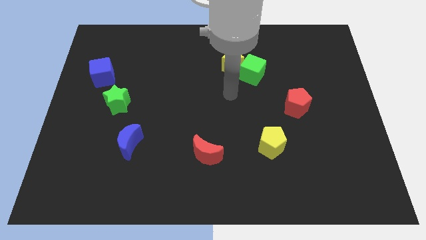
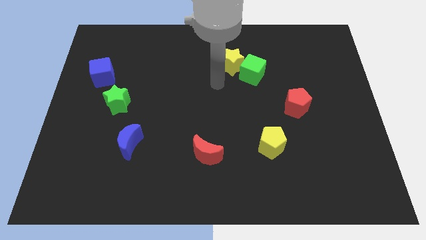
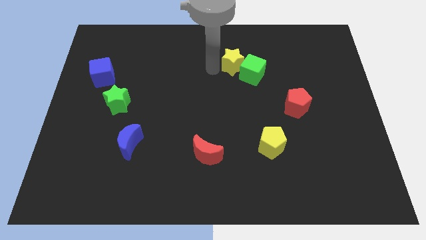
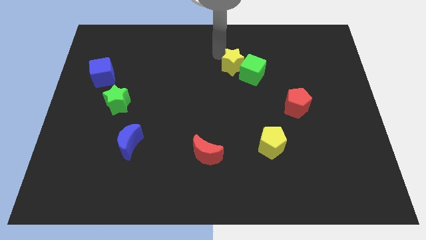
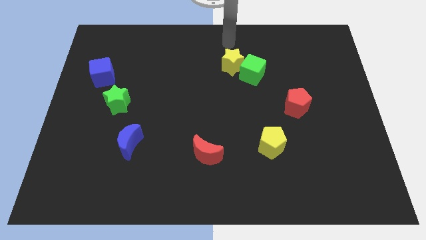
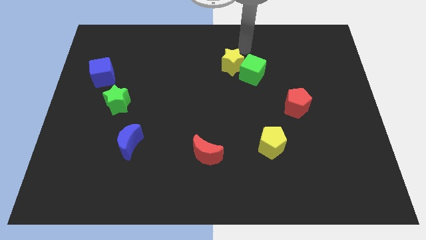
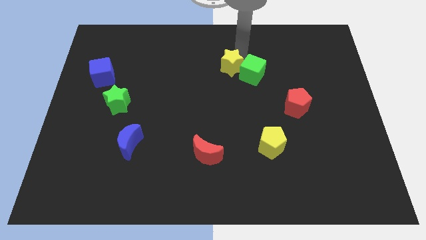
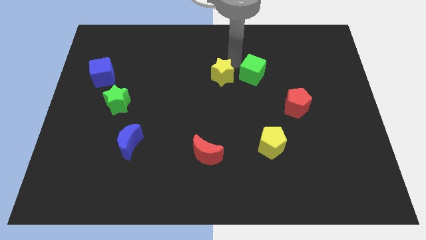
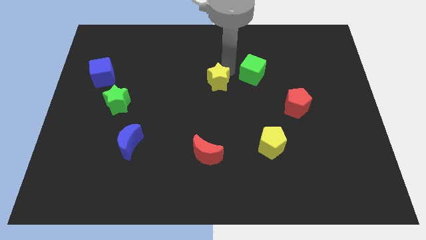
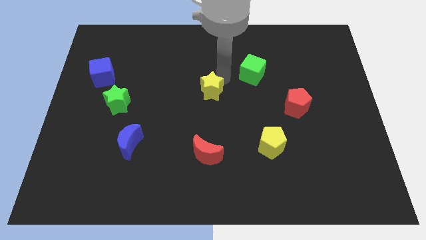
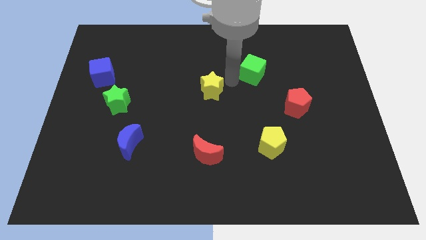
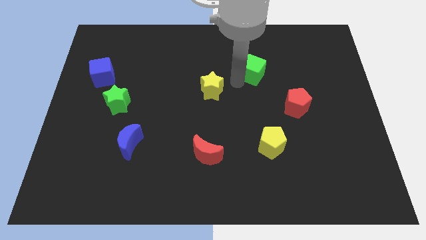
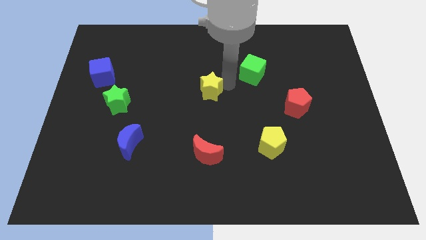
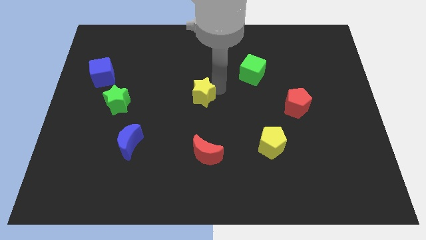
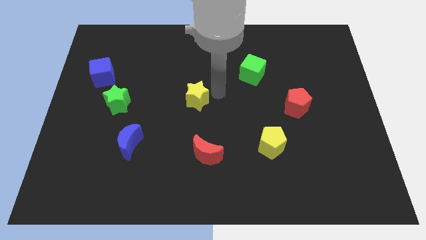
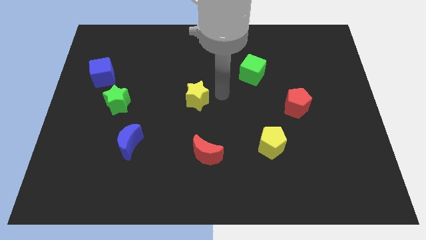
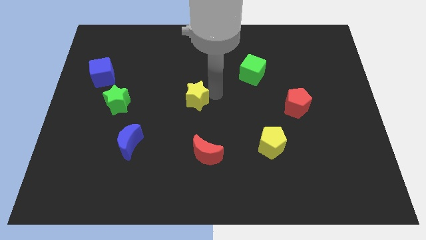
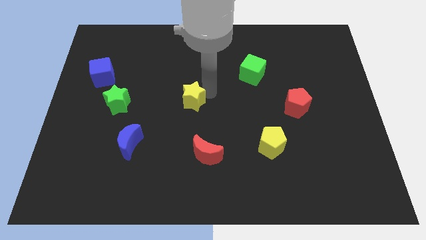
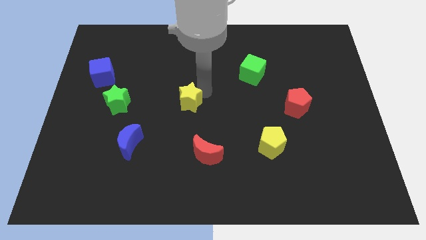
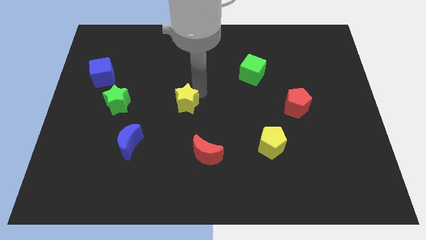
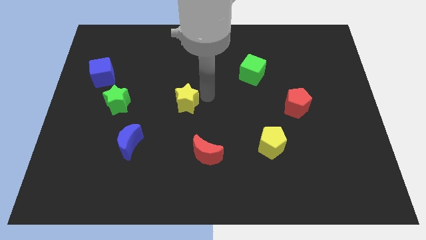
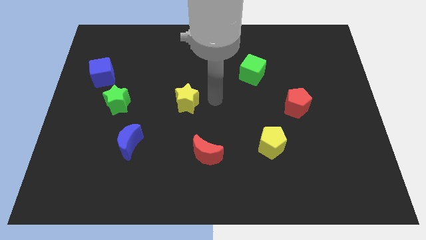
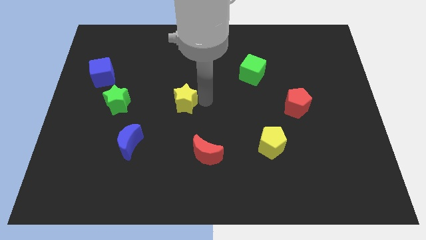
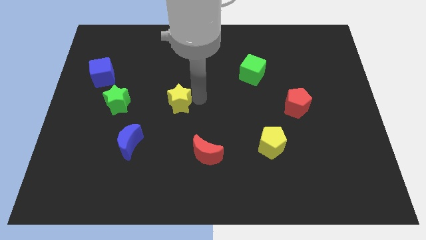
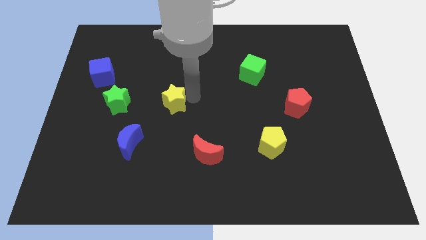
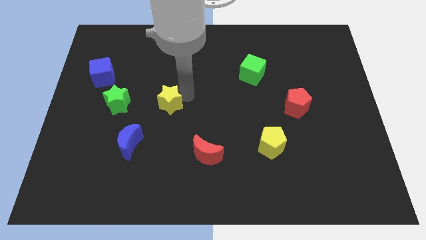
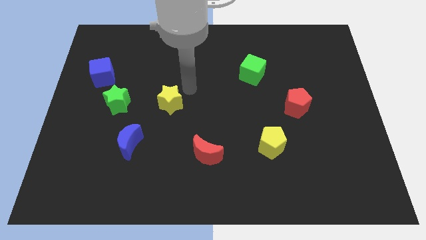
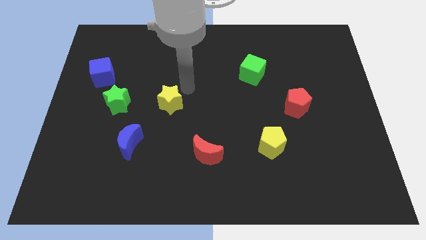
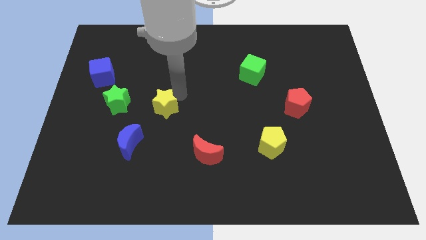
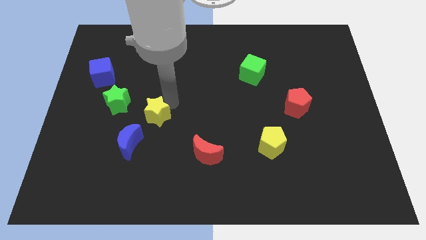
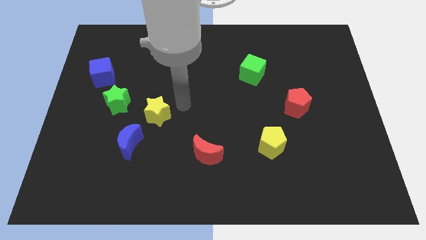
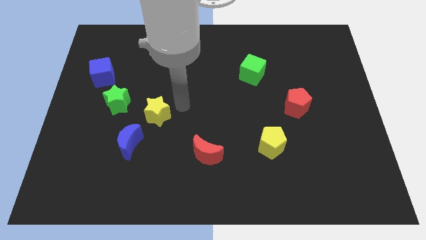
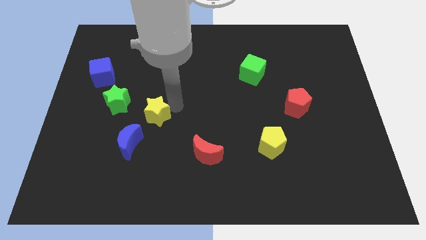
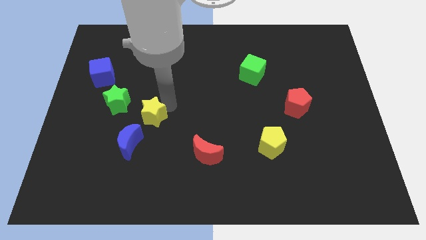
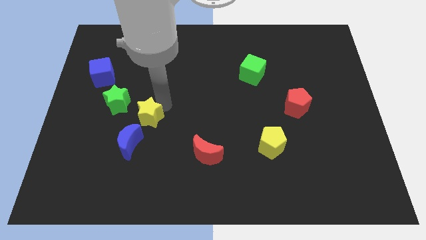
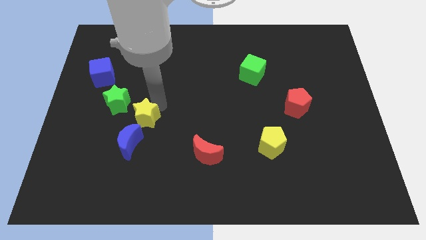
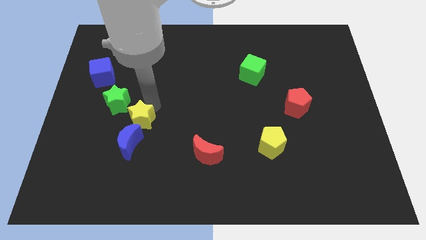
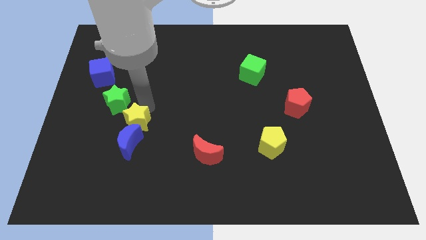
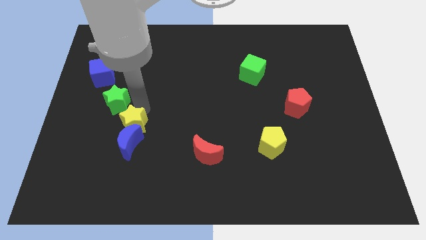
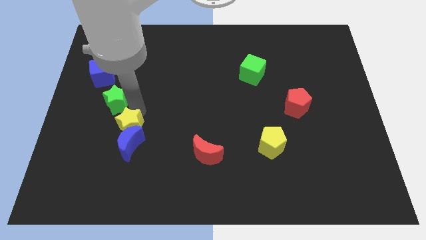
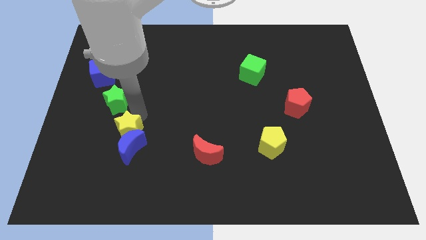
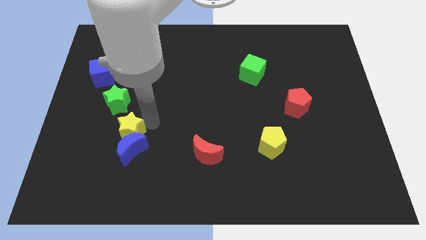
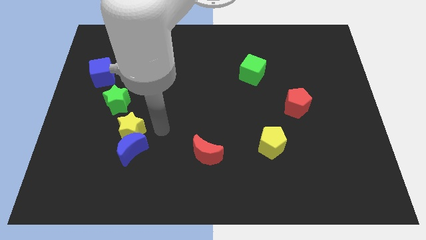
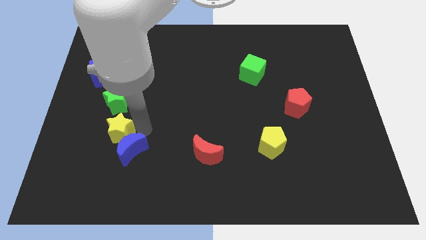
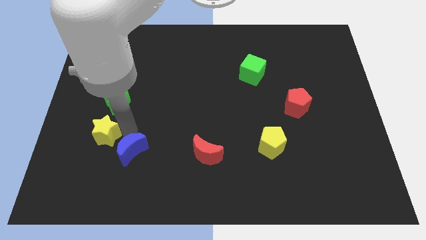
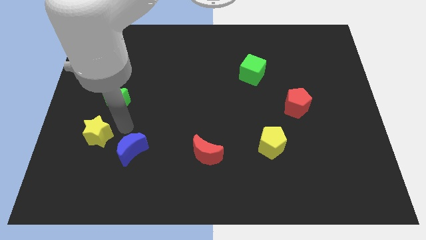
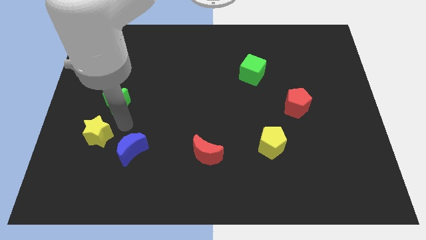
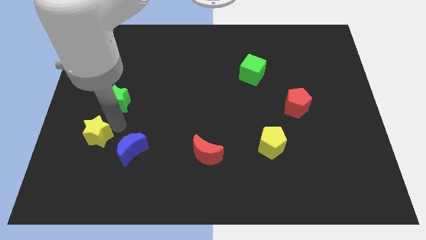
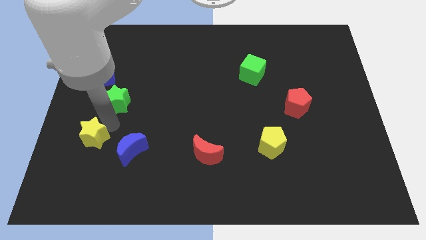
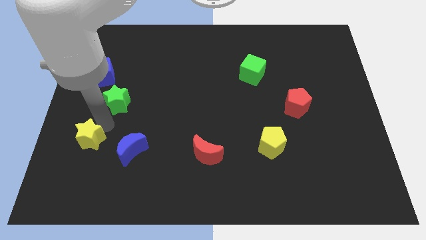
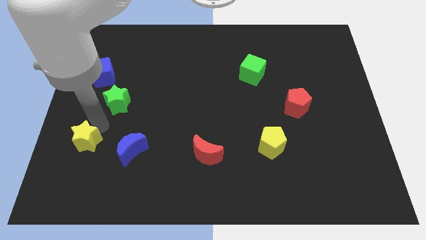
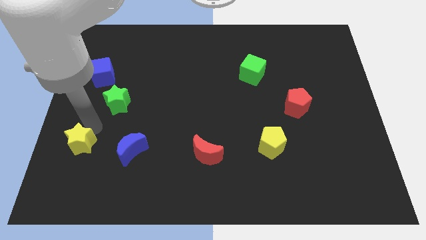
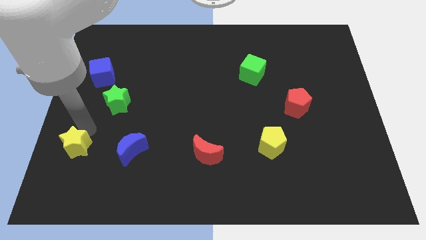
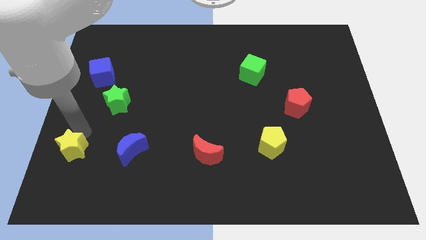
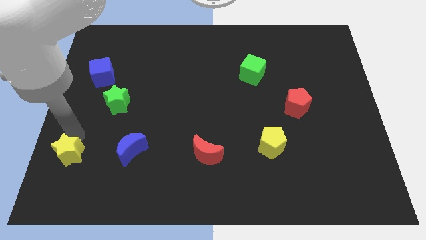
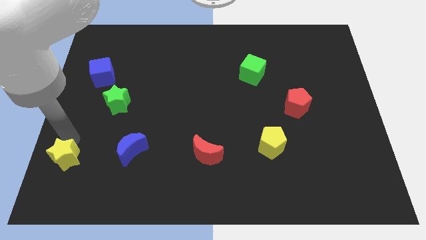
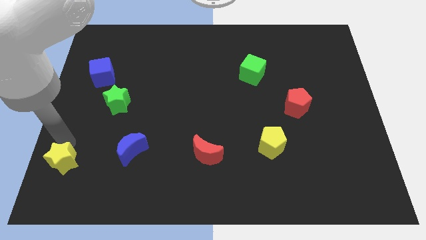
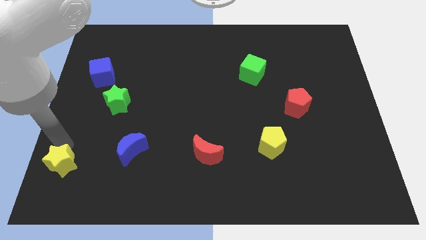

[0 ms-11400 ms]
push the yellow star to the bottom left of the board
